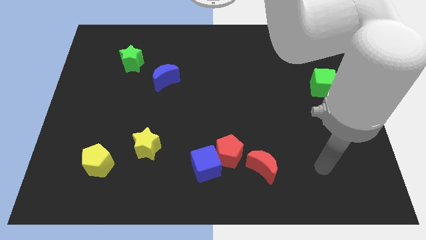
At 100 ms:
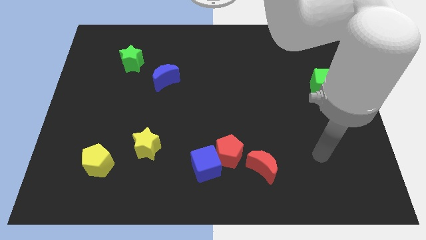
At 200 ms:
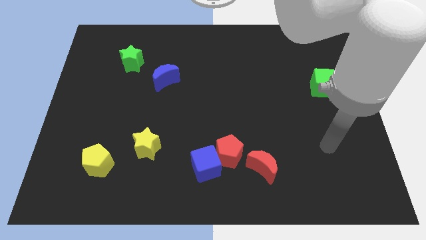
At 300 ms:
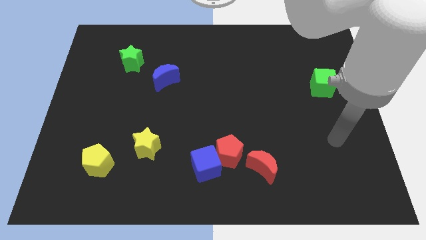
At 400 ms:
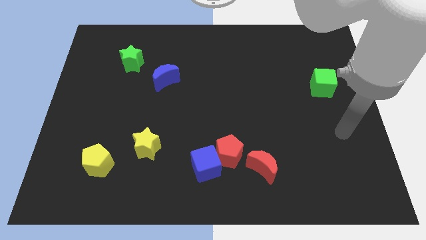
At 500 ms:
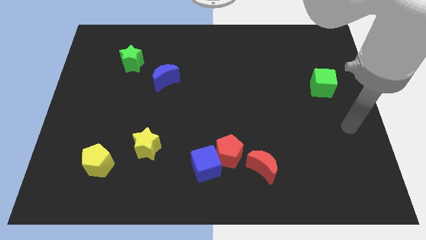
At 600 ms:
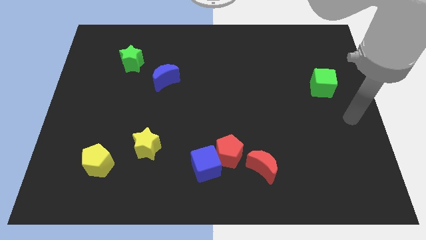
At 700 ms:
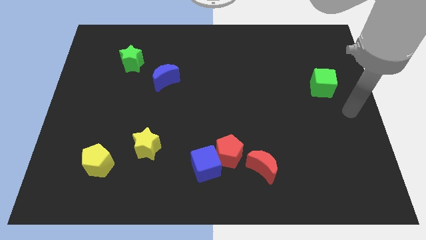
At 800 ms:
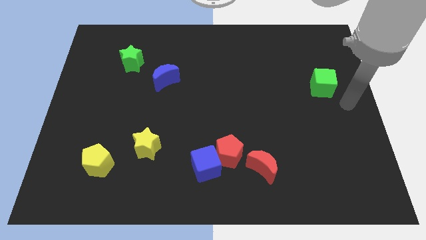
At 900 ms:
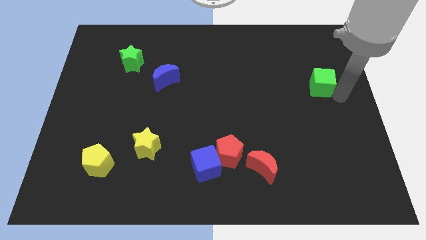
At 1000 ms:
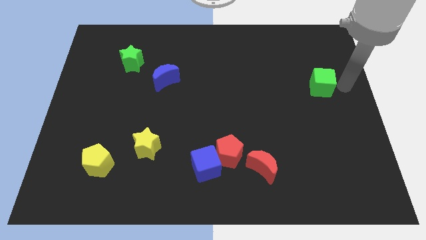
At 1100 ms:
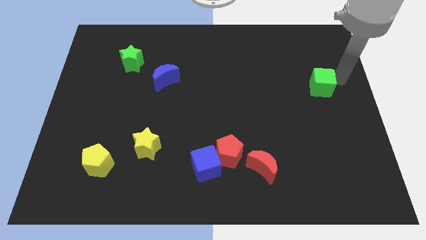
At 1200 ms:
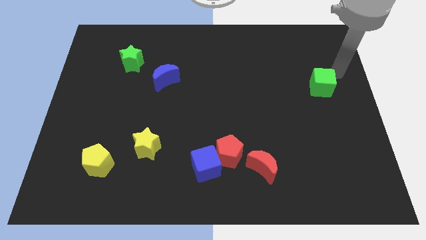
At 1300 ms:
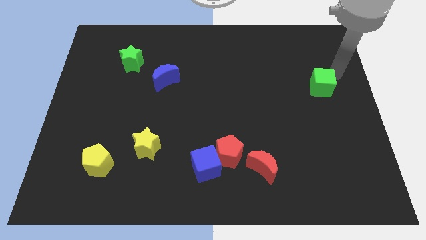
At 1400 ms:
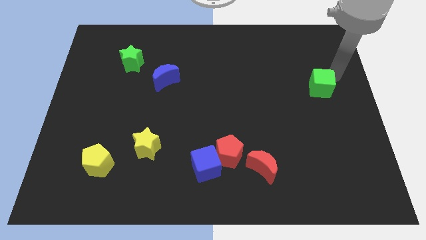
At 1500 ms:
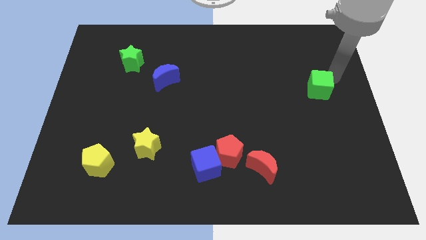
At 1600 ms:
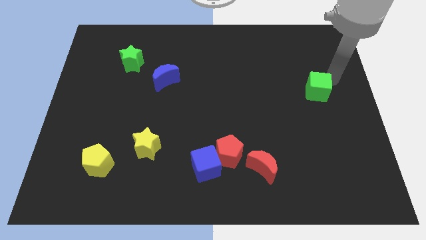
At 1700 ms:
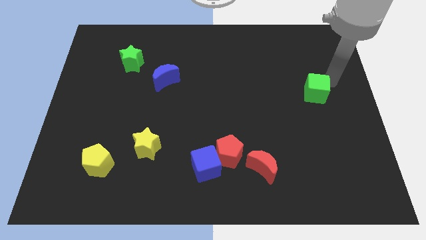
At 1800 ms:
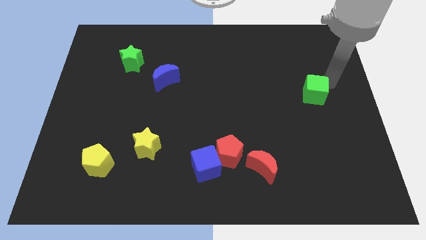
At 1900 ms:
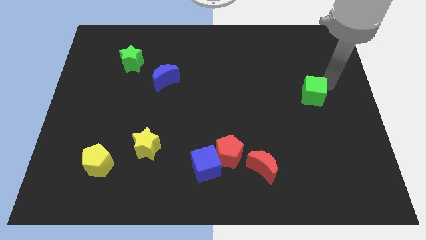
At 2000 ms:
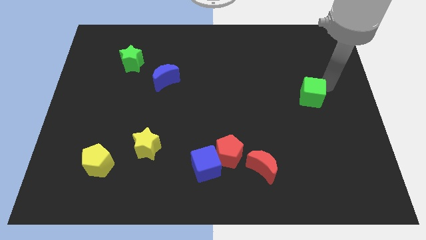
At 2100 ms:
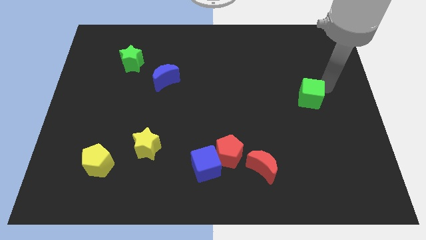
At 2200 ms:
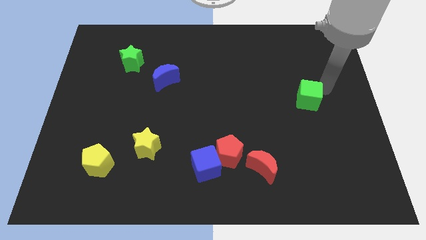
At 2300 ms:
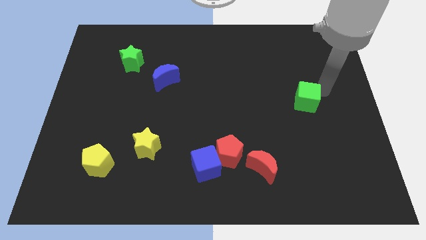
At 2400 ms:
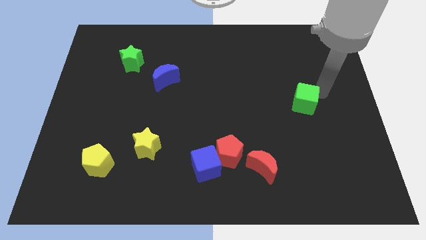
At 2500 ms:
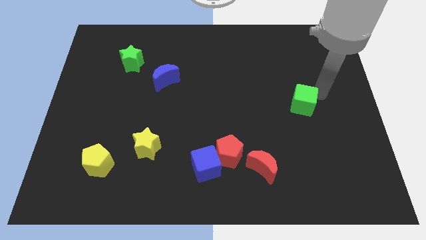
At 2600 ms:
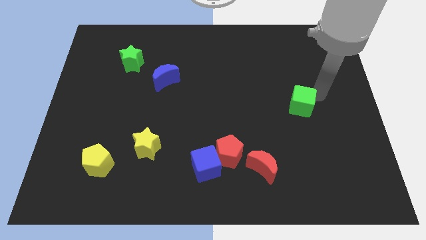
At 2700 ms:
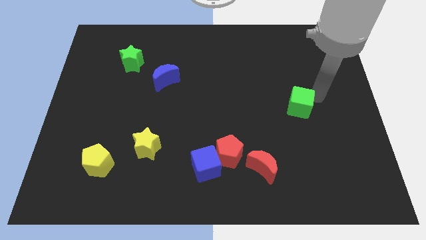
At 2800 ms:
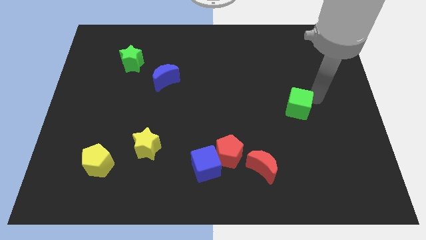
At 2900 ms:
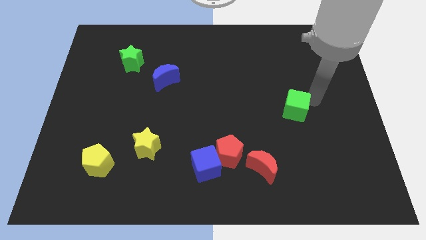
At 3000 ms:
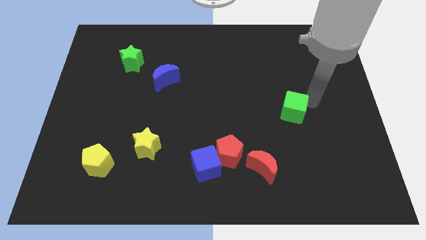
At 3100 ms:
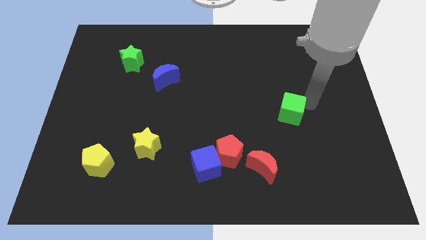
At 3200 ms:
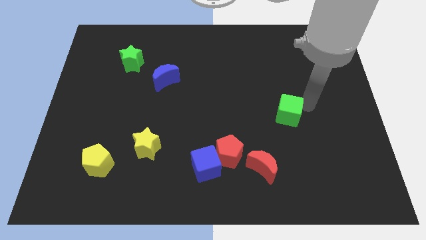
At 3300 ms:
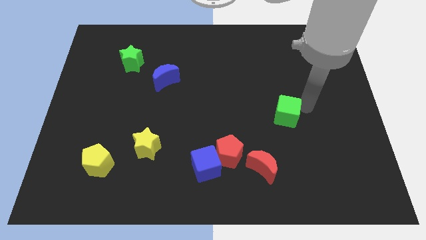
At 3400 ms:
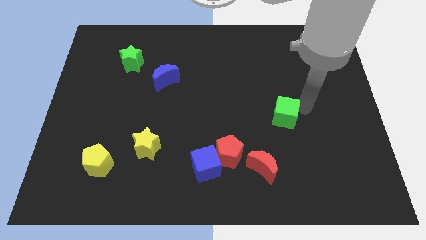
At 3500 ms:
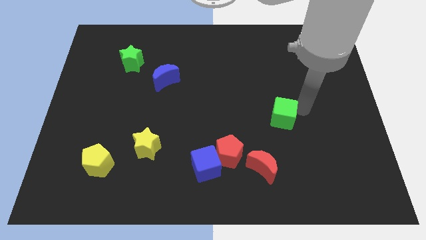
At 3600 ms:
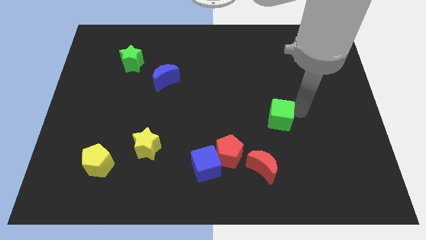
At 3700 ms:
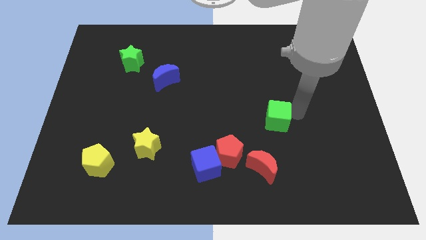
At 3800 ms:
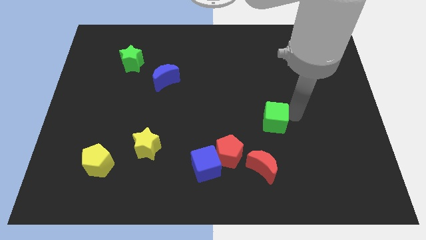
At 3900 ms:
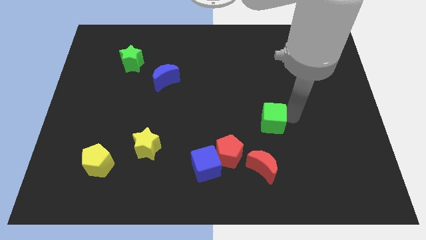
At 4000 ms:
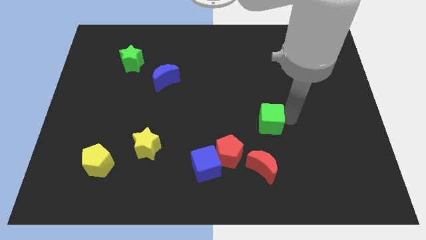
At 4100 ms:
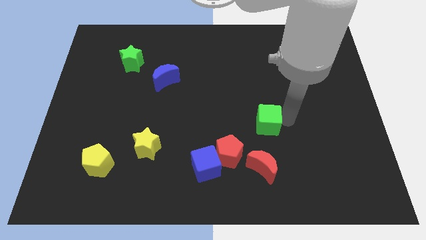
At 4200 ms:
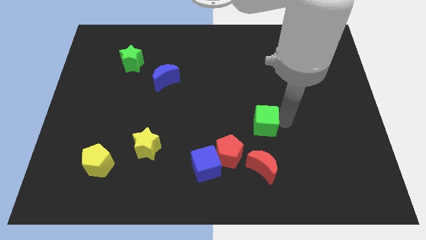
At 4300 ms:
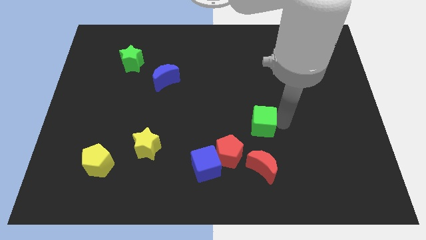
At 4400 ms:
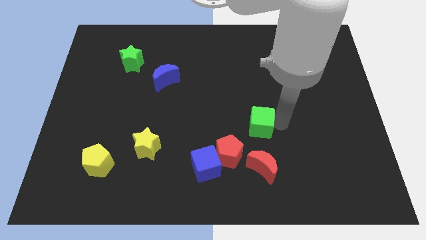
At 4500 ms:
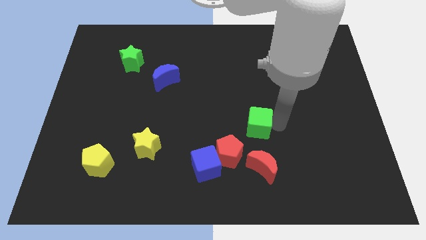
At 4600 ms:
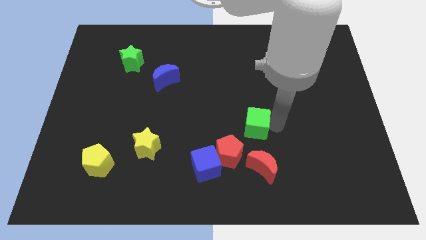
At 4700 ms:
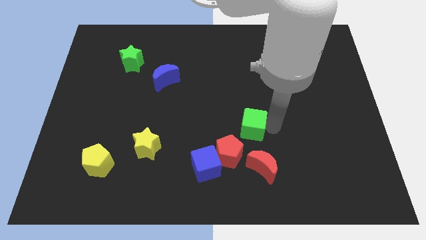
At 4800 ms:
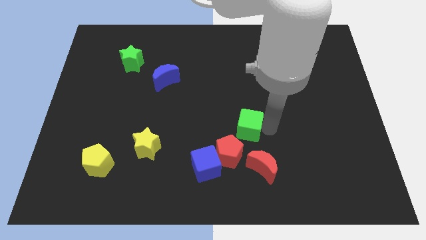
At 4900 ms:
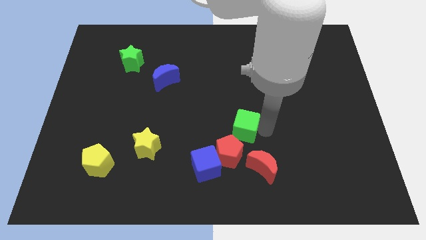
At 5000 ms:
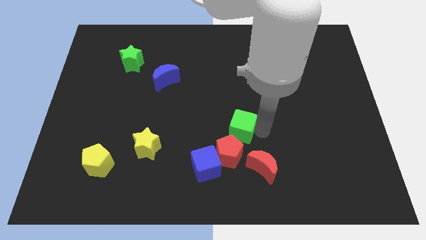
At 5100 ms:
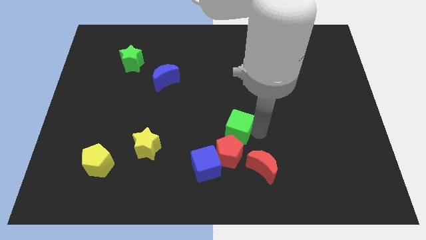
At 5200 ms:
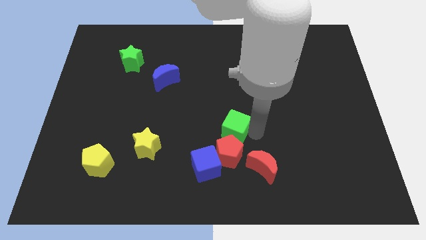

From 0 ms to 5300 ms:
push the green cube close to the red pentagon

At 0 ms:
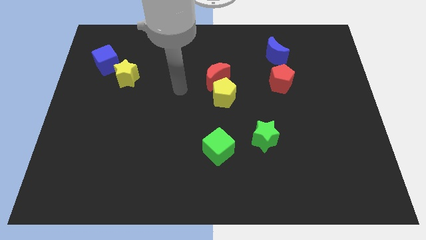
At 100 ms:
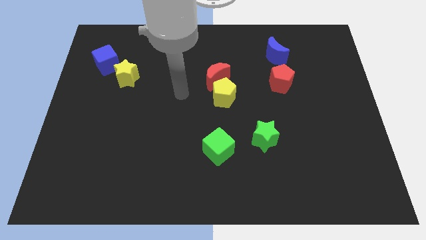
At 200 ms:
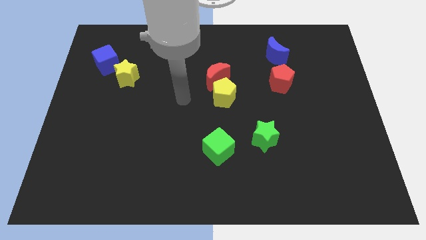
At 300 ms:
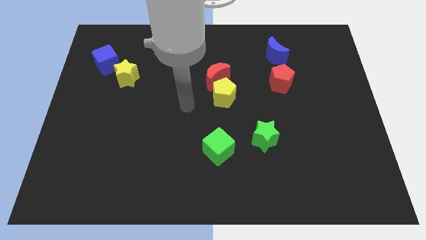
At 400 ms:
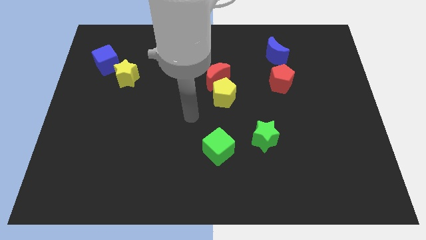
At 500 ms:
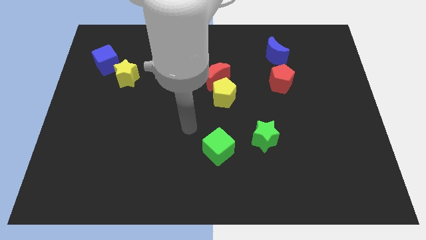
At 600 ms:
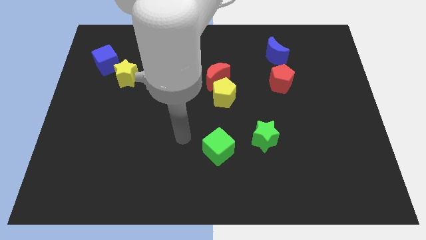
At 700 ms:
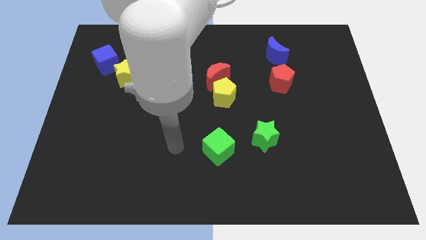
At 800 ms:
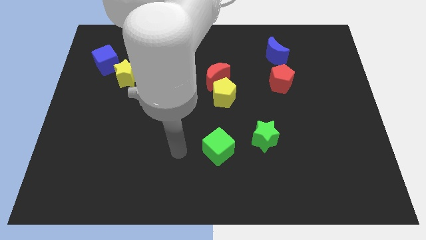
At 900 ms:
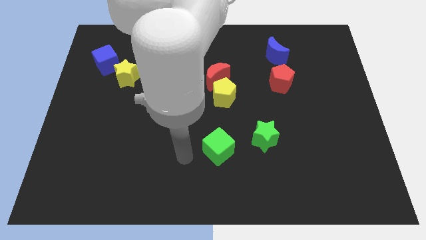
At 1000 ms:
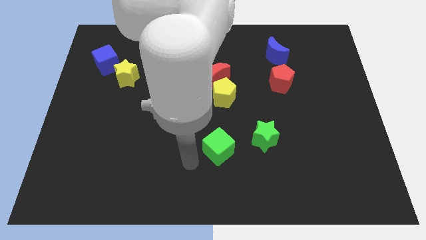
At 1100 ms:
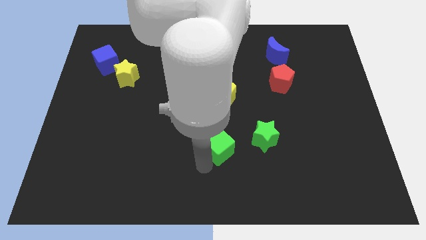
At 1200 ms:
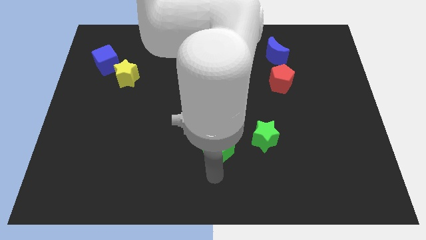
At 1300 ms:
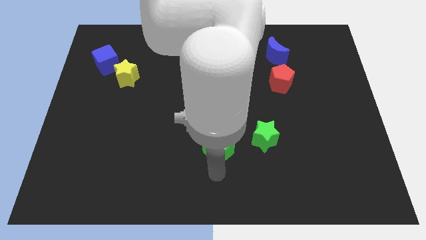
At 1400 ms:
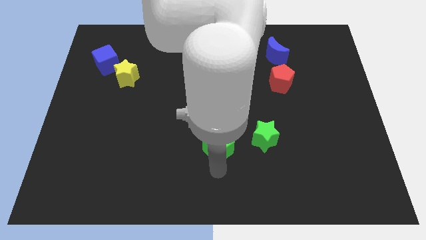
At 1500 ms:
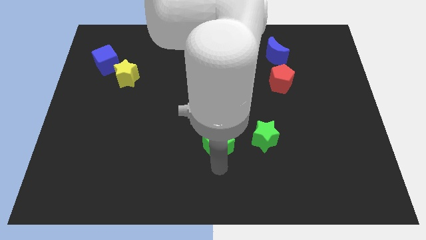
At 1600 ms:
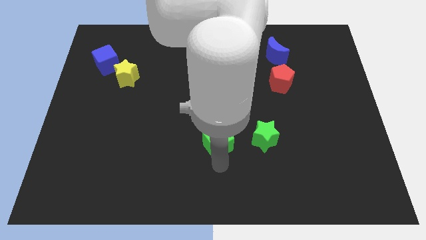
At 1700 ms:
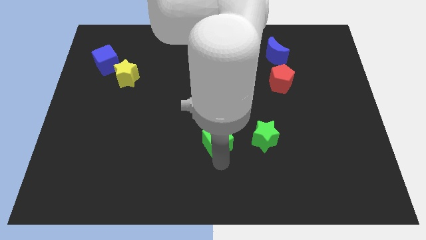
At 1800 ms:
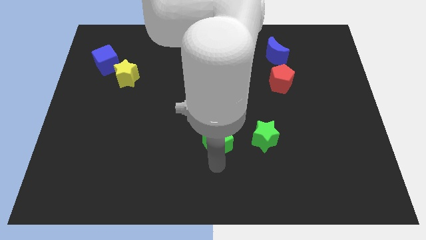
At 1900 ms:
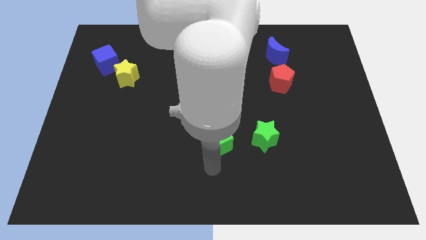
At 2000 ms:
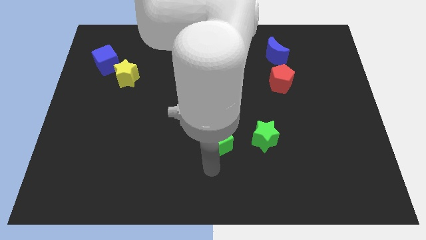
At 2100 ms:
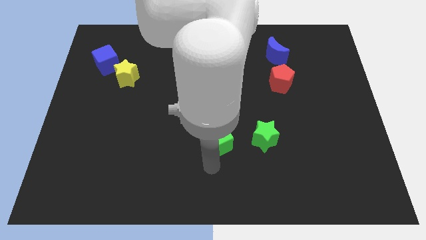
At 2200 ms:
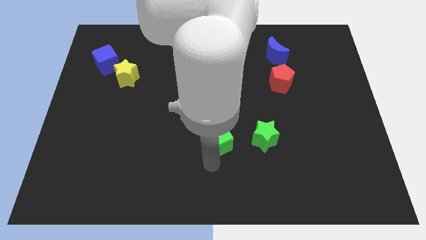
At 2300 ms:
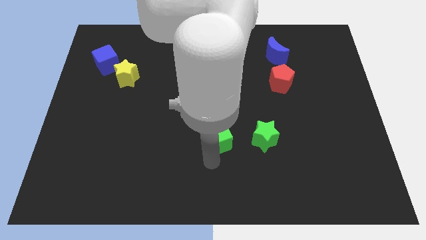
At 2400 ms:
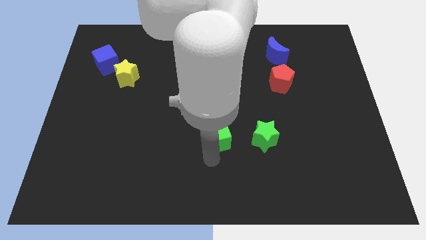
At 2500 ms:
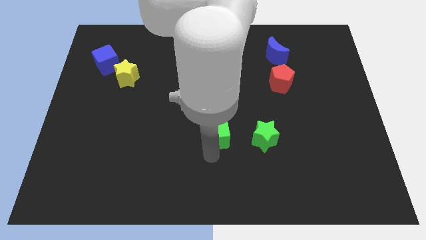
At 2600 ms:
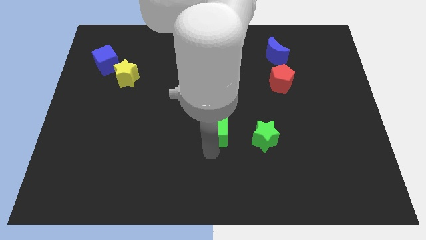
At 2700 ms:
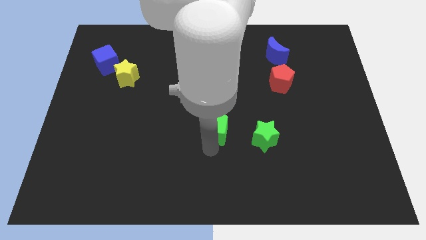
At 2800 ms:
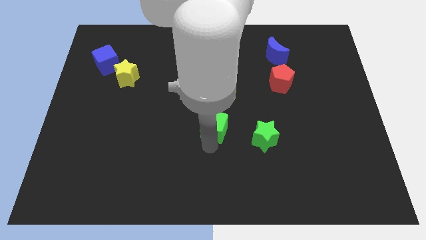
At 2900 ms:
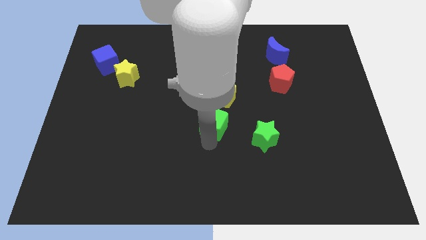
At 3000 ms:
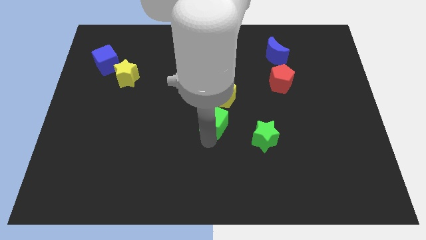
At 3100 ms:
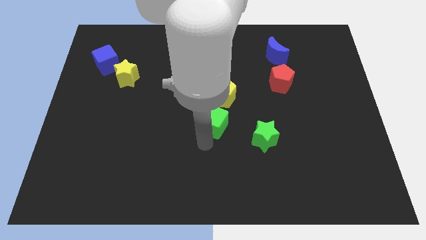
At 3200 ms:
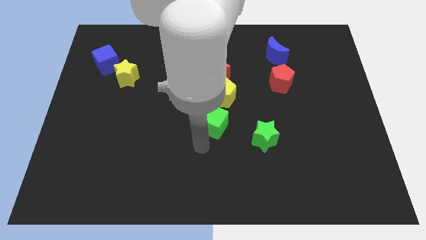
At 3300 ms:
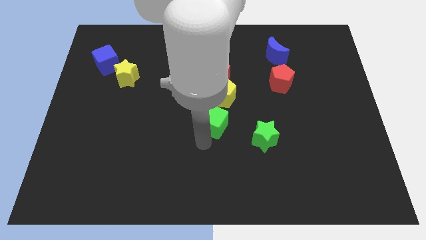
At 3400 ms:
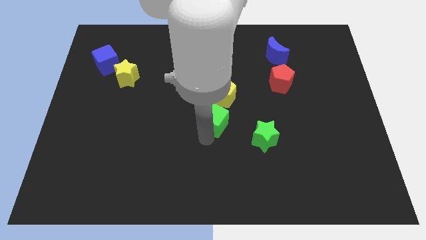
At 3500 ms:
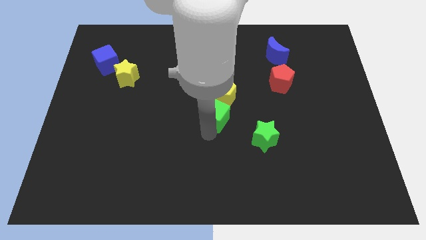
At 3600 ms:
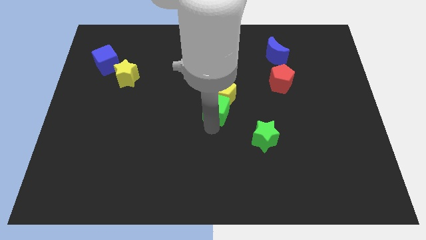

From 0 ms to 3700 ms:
move the green cube towards the yellow pentagon
